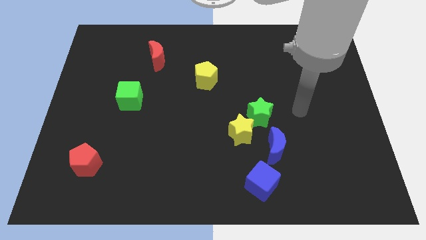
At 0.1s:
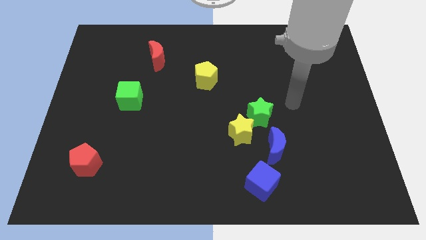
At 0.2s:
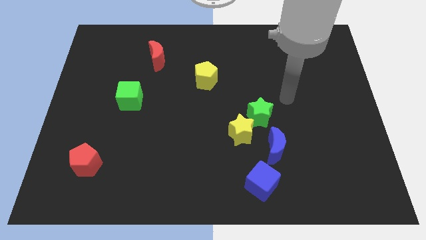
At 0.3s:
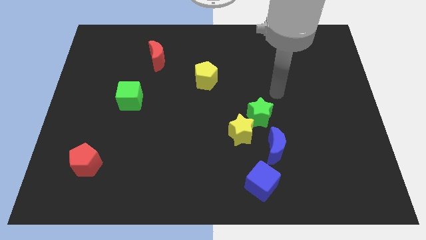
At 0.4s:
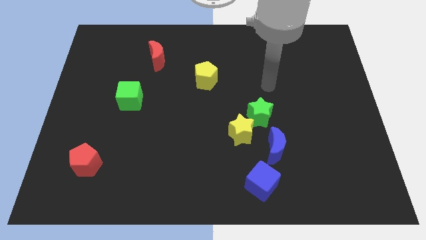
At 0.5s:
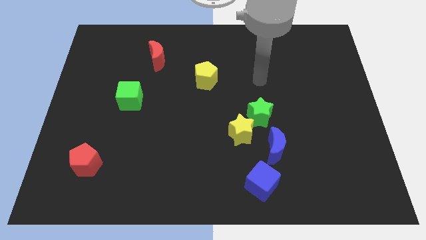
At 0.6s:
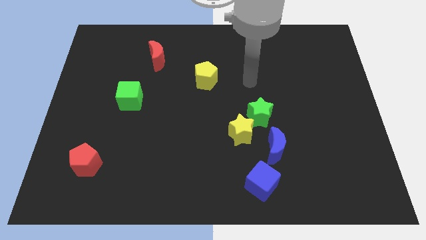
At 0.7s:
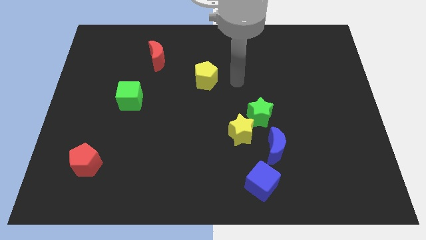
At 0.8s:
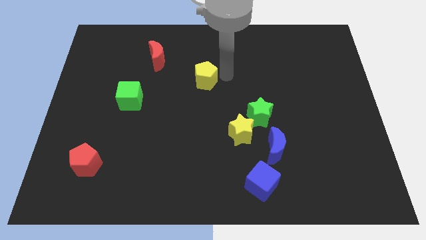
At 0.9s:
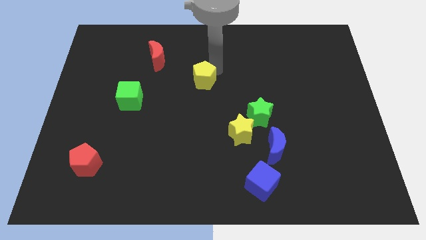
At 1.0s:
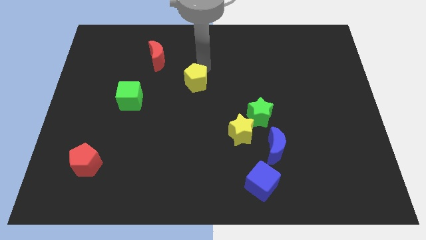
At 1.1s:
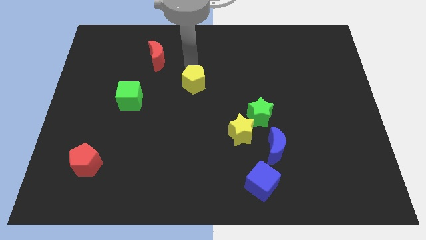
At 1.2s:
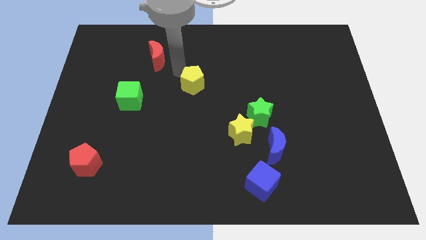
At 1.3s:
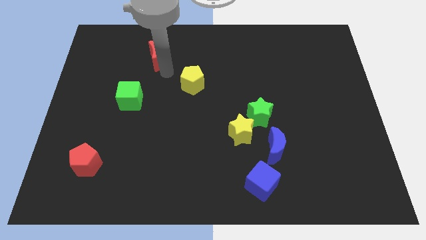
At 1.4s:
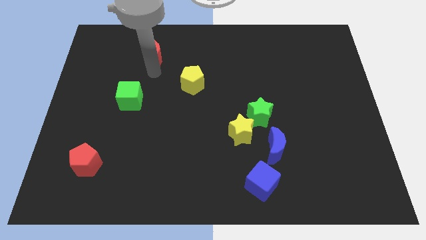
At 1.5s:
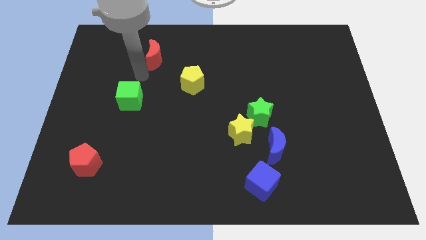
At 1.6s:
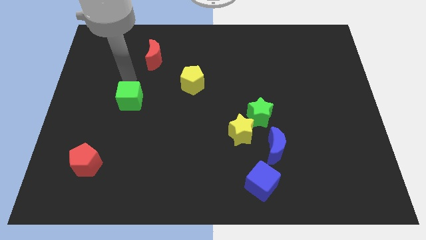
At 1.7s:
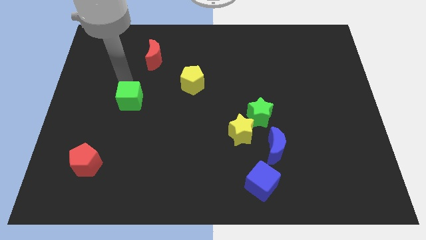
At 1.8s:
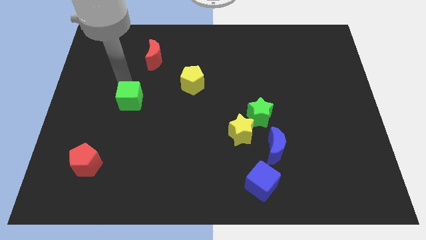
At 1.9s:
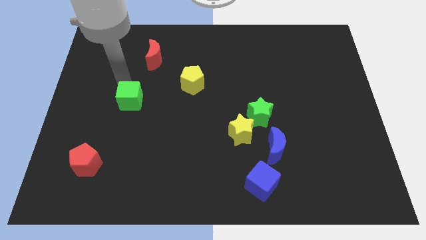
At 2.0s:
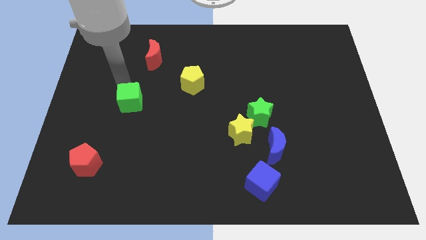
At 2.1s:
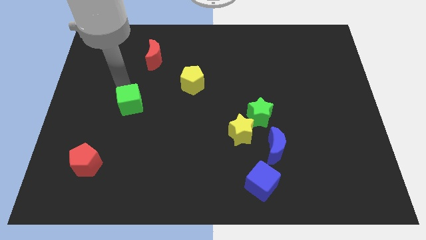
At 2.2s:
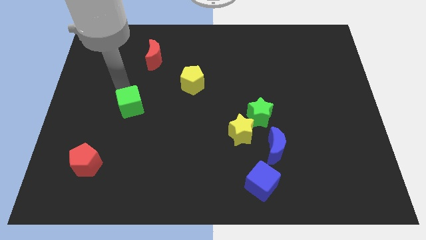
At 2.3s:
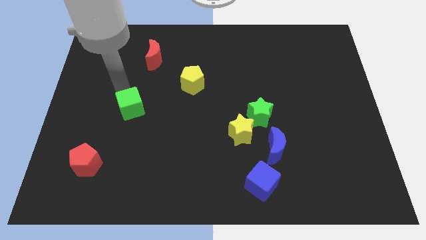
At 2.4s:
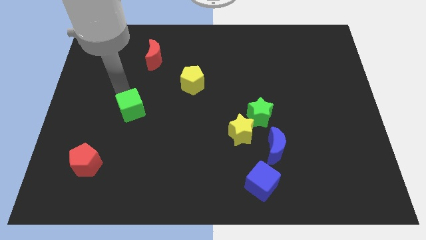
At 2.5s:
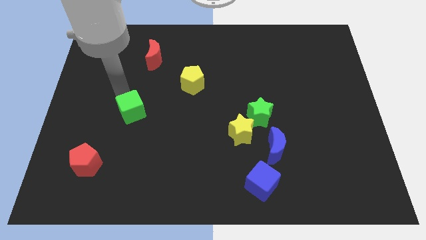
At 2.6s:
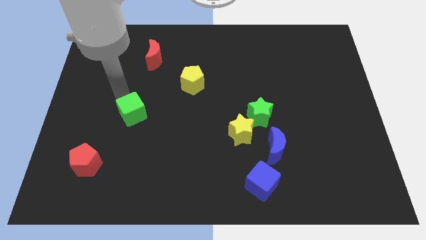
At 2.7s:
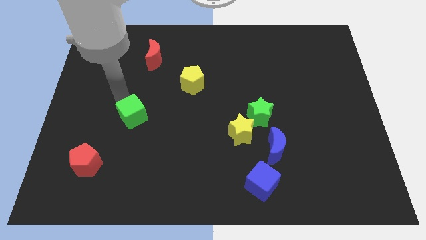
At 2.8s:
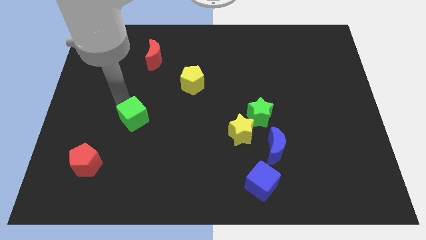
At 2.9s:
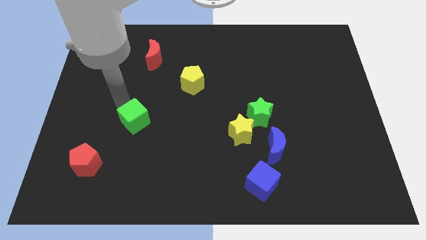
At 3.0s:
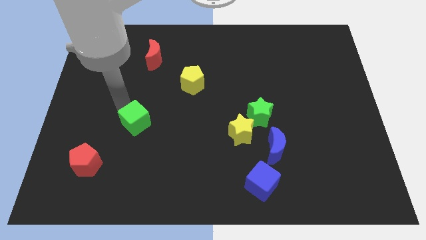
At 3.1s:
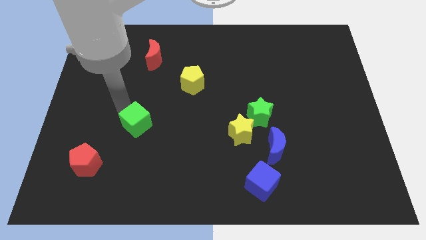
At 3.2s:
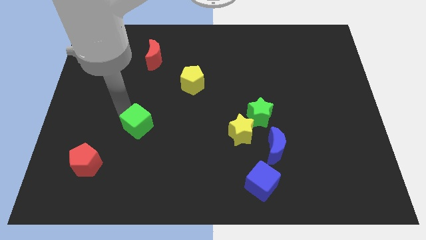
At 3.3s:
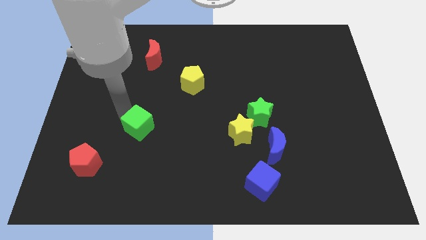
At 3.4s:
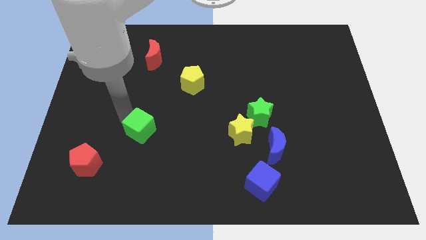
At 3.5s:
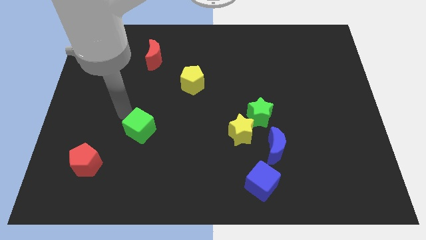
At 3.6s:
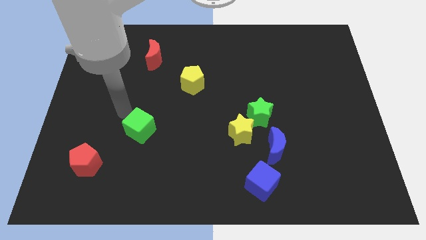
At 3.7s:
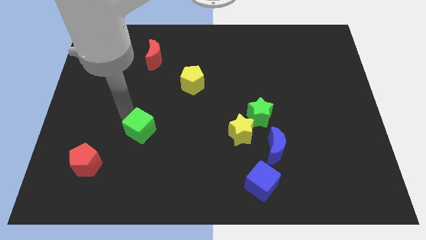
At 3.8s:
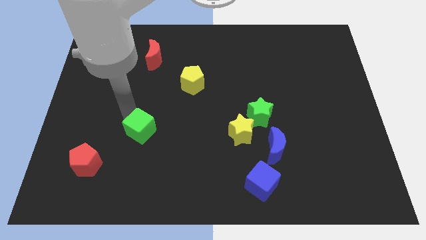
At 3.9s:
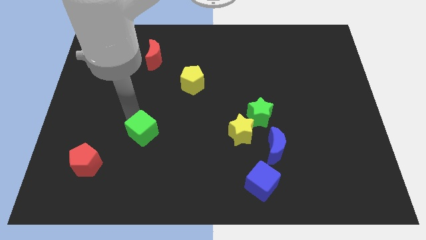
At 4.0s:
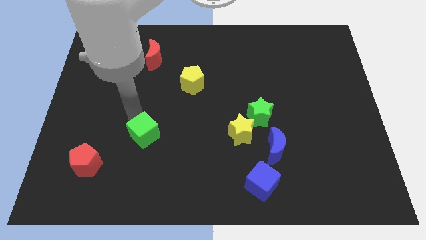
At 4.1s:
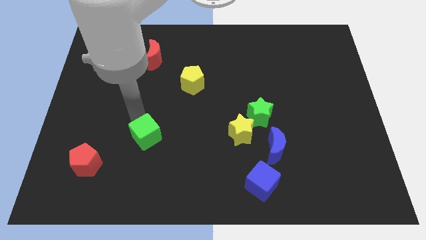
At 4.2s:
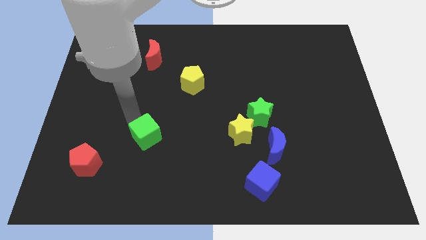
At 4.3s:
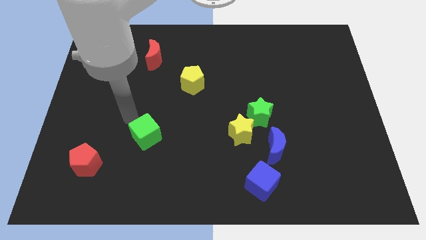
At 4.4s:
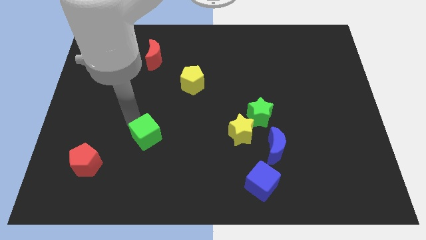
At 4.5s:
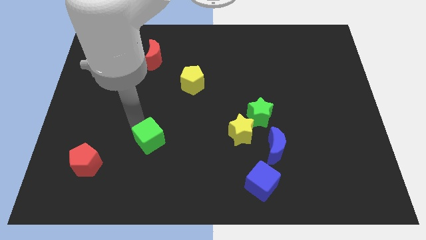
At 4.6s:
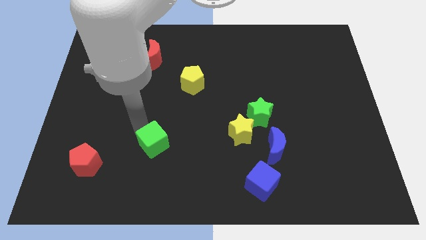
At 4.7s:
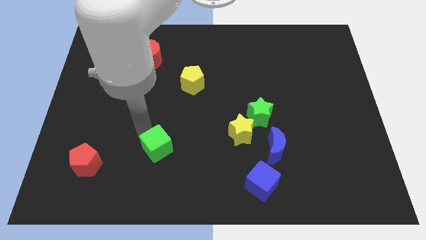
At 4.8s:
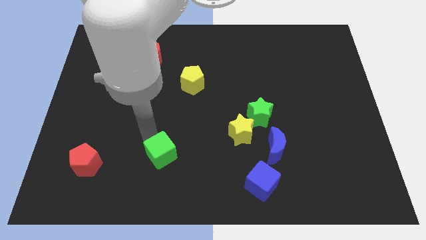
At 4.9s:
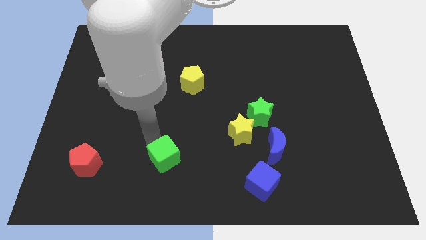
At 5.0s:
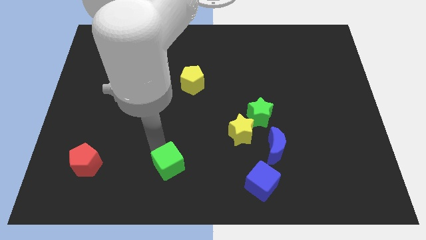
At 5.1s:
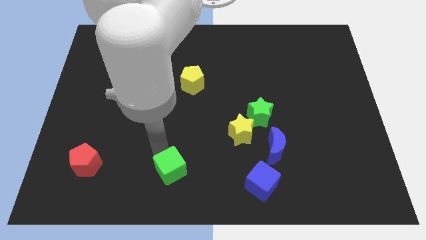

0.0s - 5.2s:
slide the green cube to the bottom
